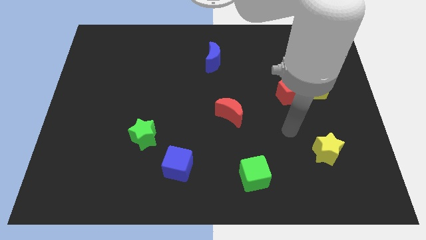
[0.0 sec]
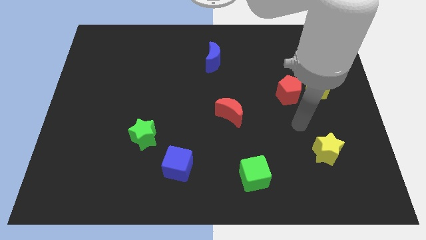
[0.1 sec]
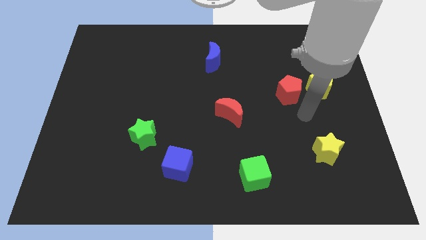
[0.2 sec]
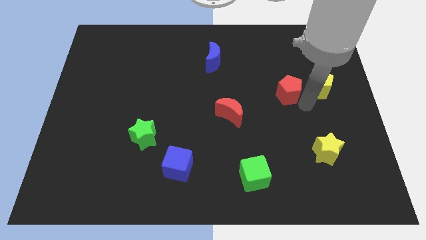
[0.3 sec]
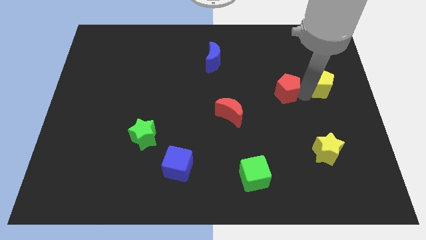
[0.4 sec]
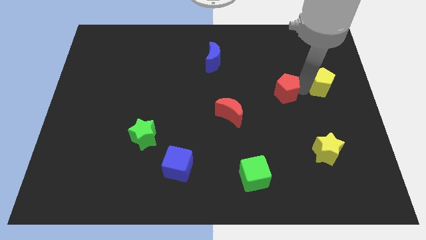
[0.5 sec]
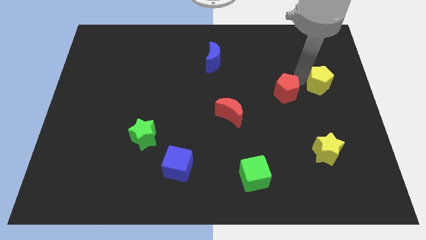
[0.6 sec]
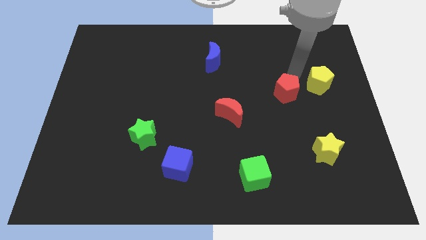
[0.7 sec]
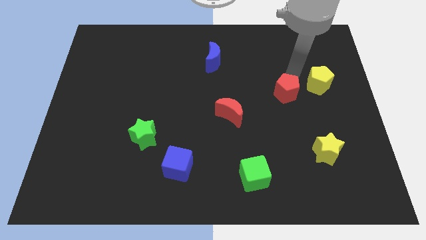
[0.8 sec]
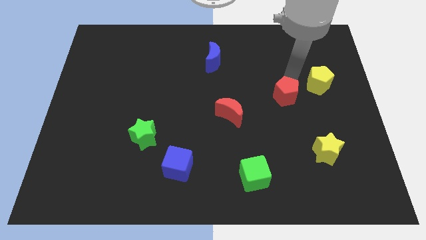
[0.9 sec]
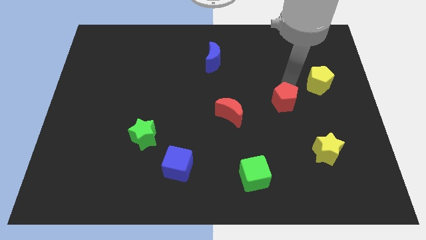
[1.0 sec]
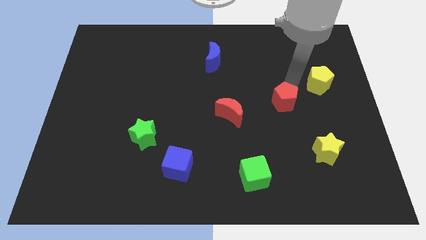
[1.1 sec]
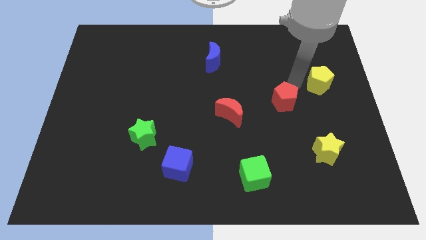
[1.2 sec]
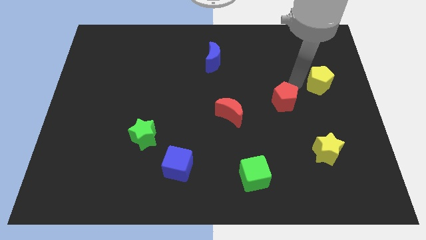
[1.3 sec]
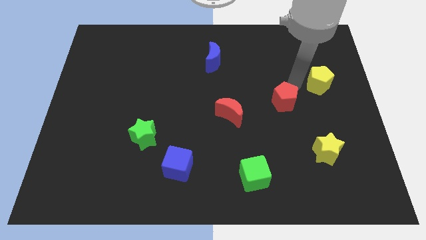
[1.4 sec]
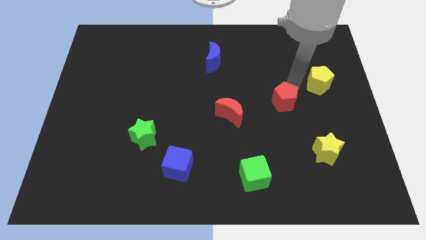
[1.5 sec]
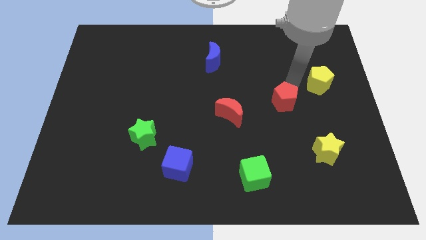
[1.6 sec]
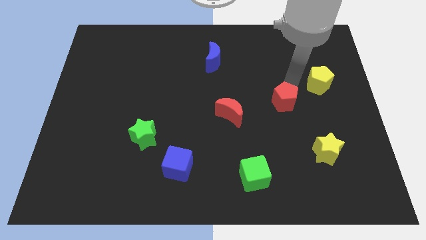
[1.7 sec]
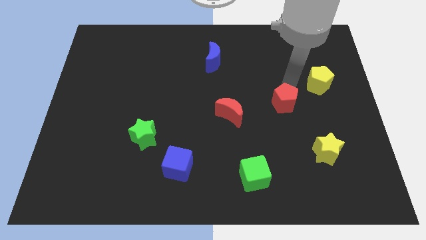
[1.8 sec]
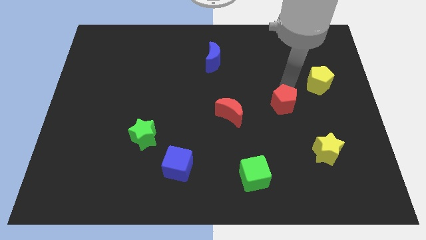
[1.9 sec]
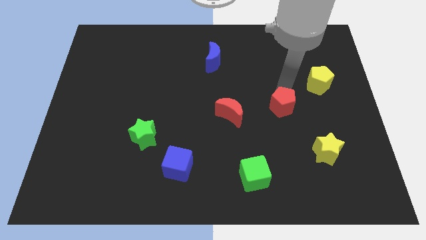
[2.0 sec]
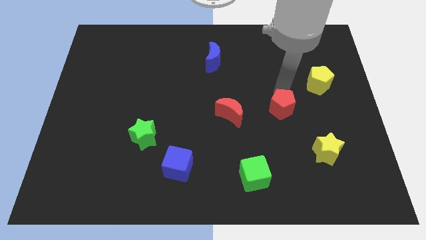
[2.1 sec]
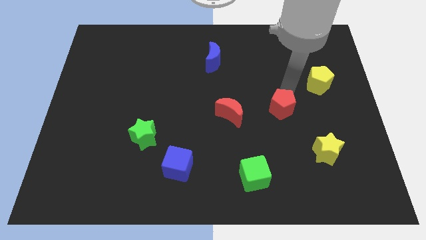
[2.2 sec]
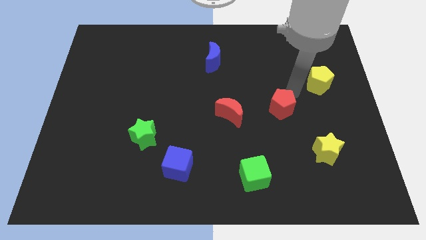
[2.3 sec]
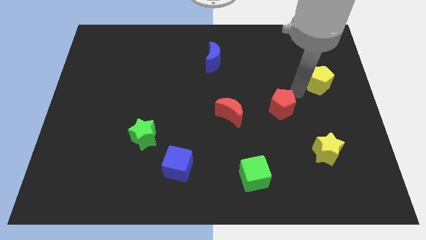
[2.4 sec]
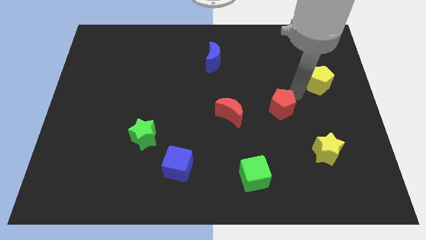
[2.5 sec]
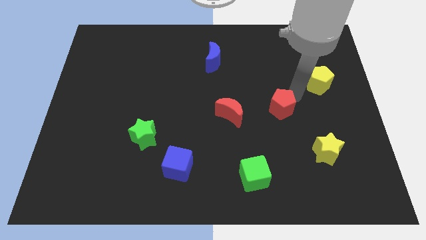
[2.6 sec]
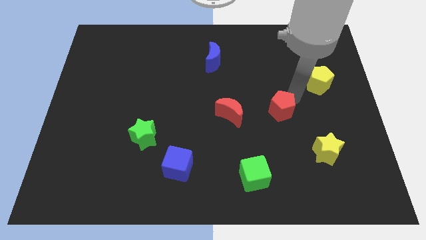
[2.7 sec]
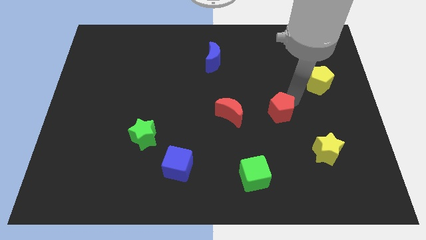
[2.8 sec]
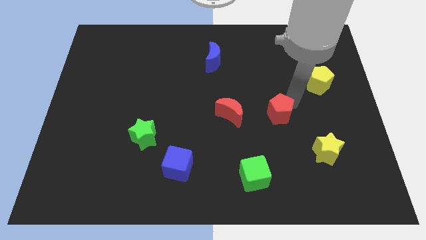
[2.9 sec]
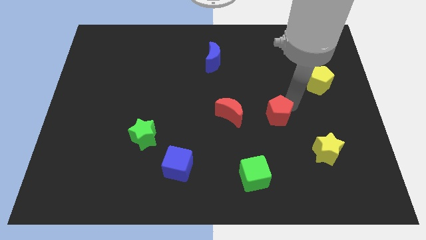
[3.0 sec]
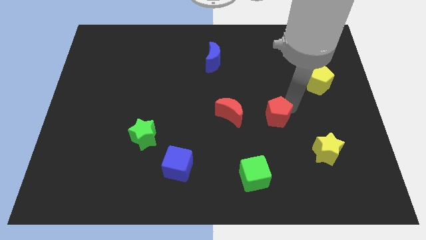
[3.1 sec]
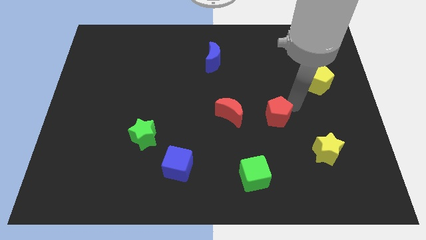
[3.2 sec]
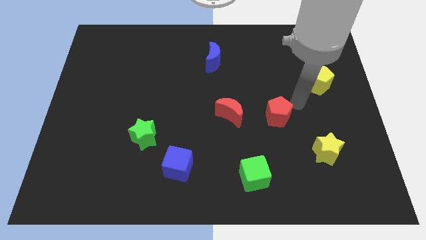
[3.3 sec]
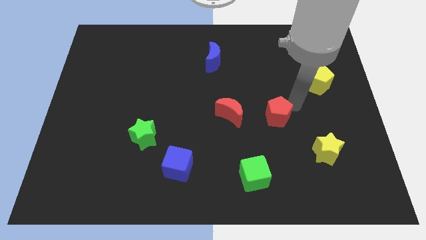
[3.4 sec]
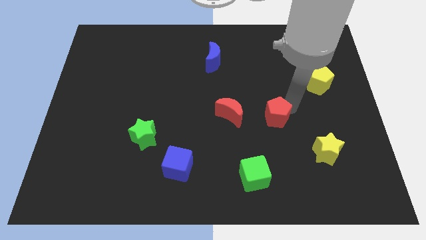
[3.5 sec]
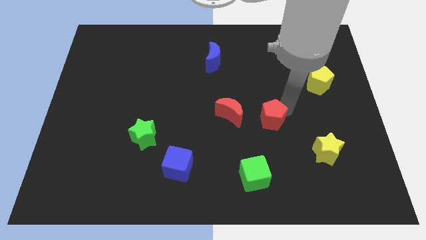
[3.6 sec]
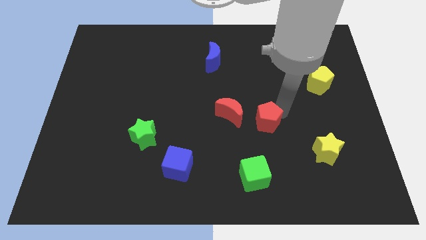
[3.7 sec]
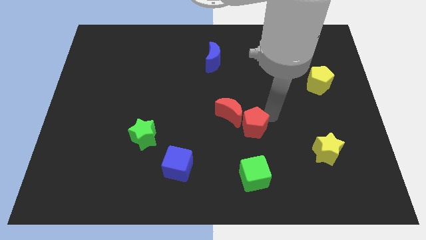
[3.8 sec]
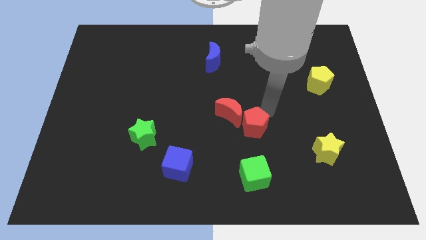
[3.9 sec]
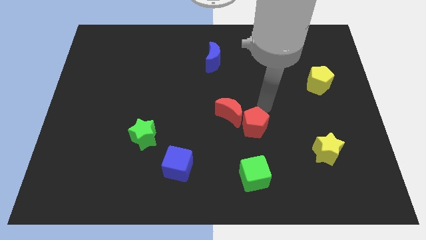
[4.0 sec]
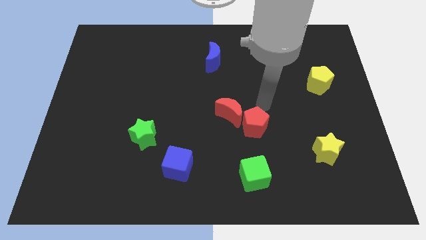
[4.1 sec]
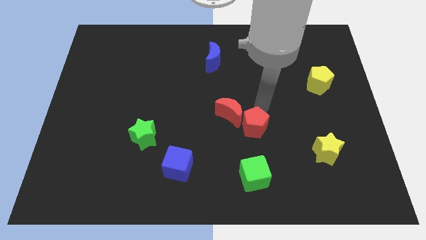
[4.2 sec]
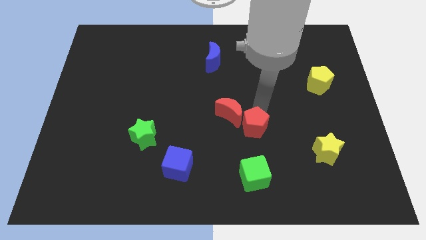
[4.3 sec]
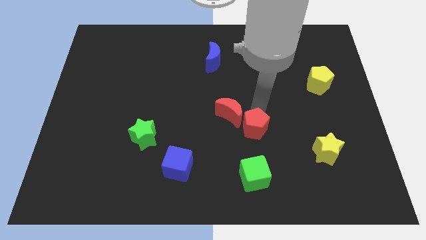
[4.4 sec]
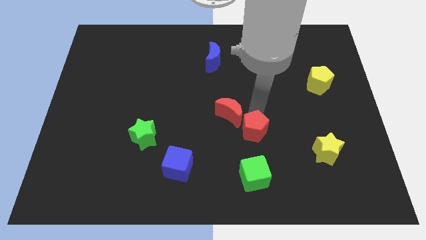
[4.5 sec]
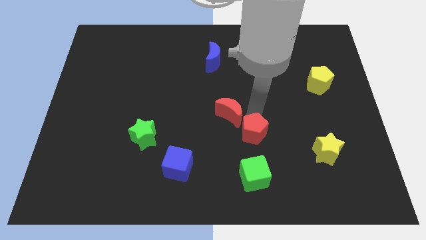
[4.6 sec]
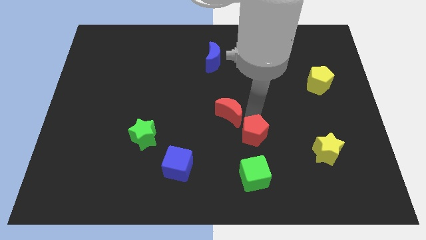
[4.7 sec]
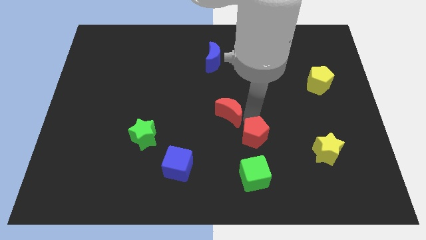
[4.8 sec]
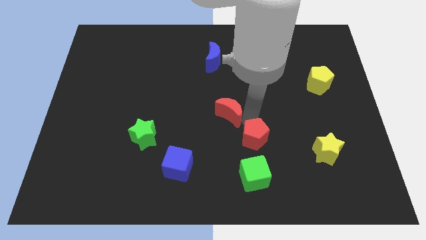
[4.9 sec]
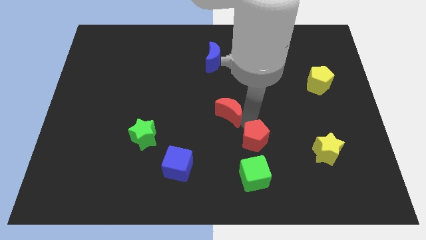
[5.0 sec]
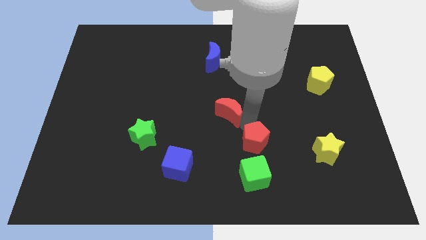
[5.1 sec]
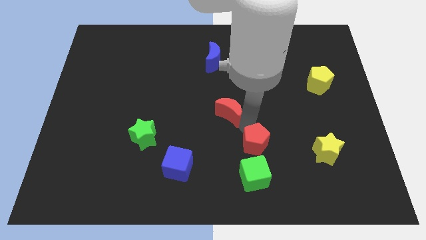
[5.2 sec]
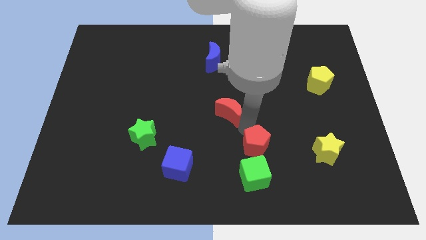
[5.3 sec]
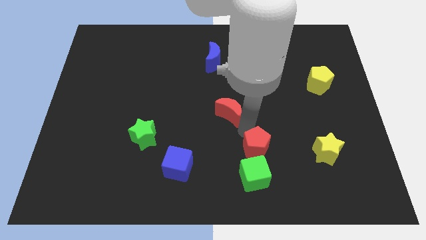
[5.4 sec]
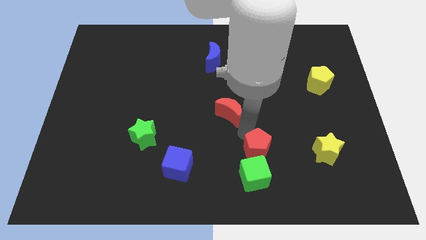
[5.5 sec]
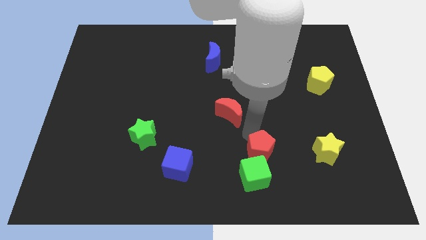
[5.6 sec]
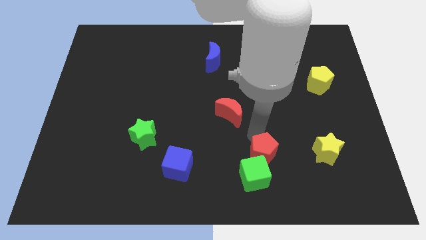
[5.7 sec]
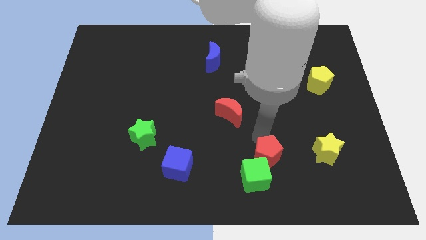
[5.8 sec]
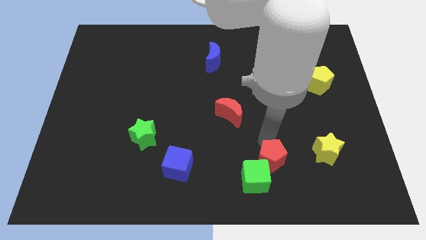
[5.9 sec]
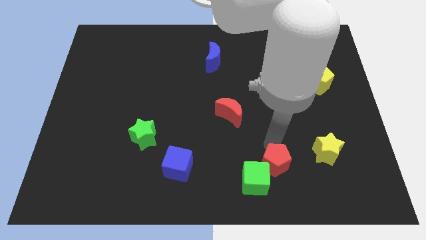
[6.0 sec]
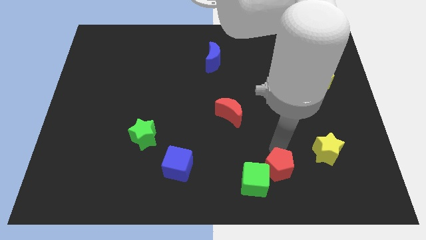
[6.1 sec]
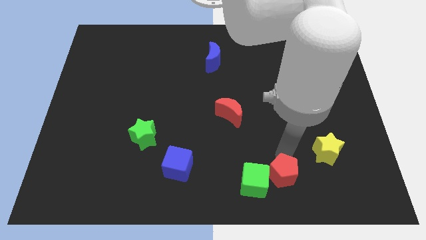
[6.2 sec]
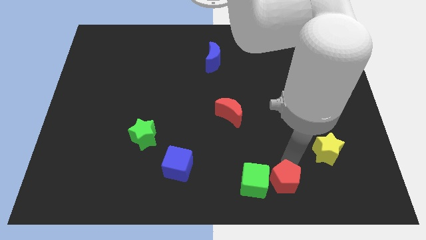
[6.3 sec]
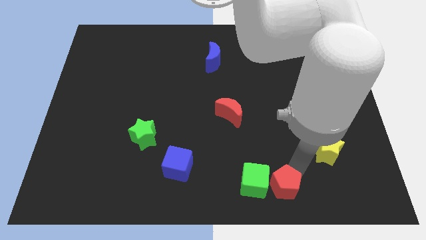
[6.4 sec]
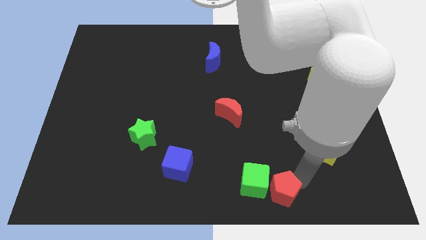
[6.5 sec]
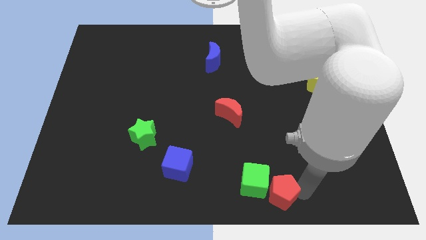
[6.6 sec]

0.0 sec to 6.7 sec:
slide the red pentagon to the bottom side

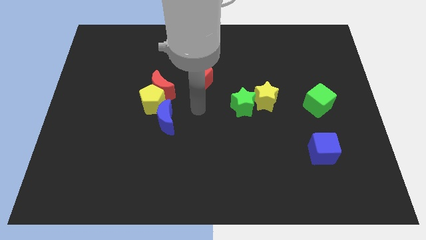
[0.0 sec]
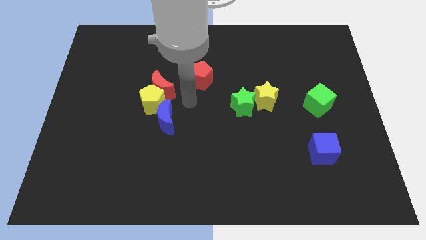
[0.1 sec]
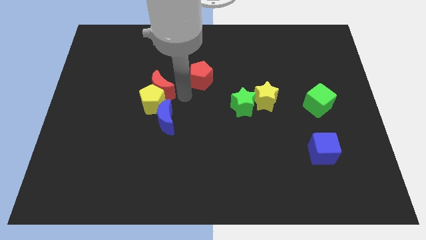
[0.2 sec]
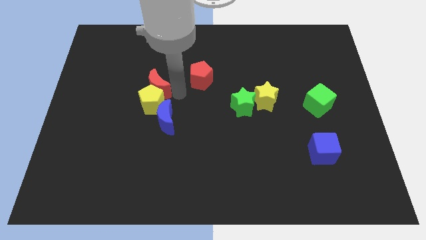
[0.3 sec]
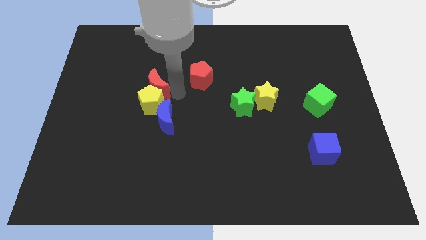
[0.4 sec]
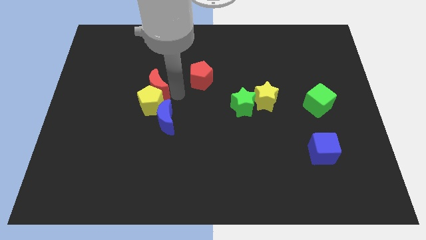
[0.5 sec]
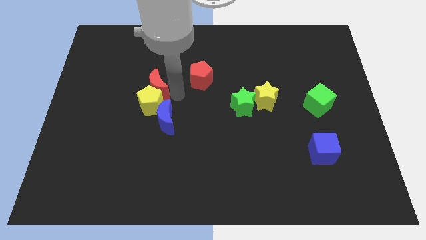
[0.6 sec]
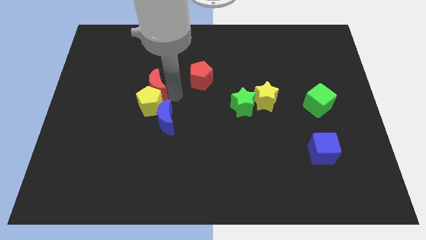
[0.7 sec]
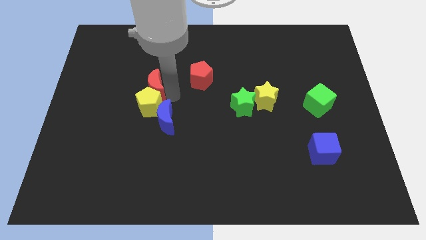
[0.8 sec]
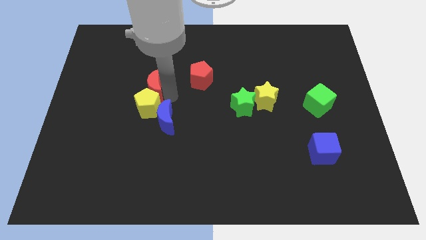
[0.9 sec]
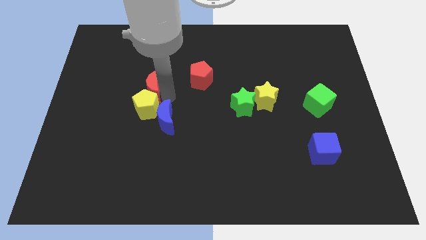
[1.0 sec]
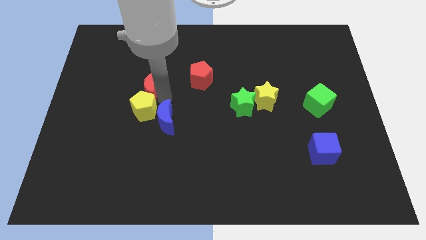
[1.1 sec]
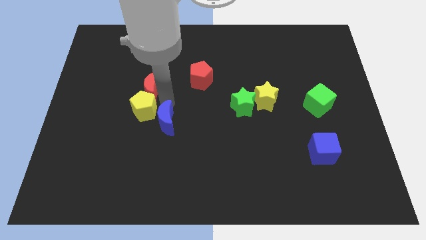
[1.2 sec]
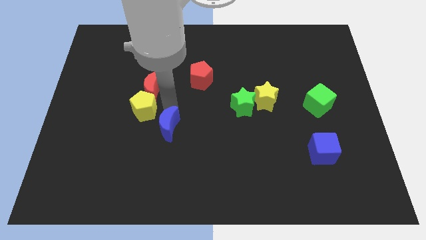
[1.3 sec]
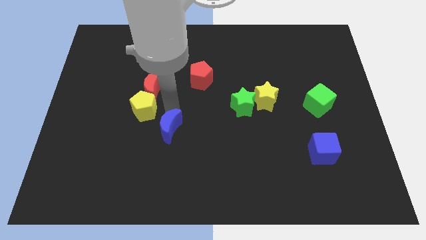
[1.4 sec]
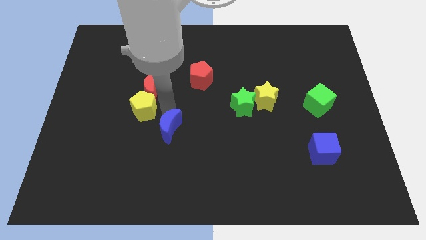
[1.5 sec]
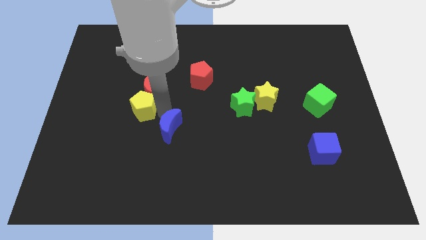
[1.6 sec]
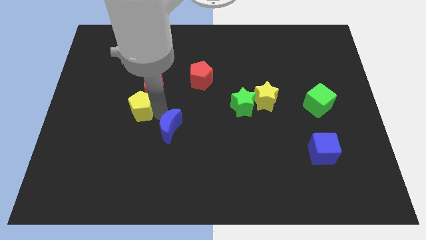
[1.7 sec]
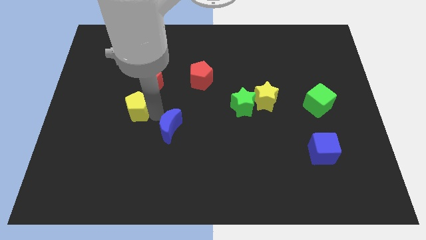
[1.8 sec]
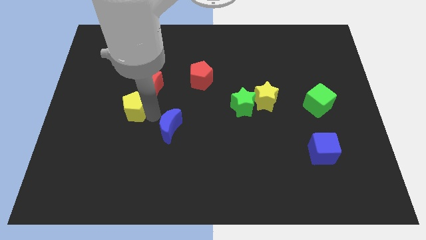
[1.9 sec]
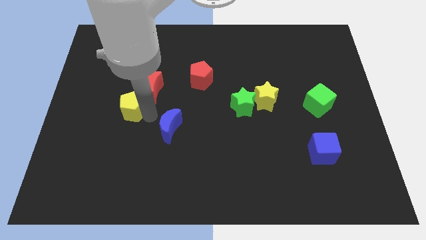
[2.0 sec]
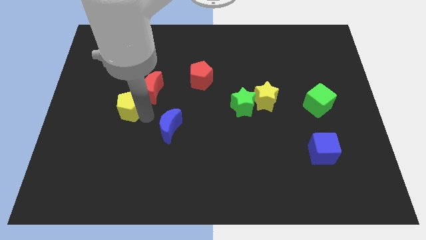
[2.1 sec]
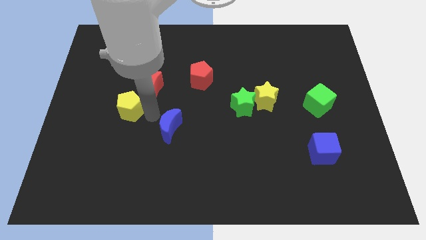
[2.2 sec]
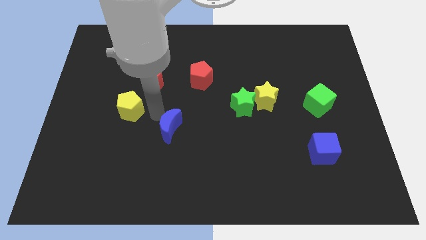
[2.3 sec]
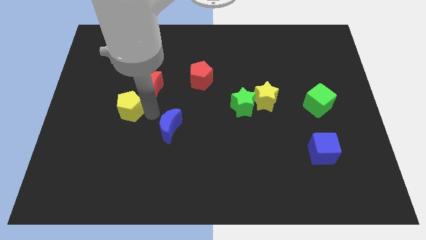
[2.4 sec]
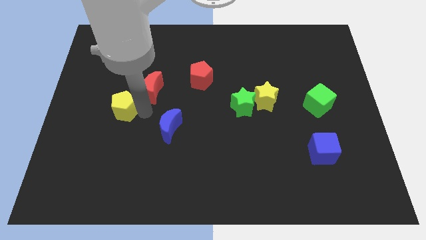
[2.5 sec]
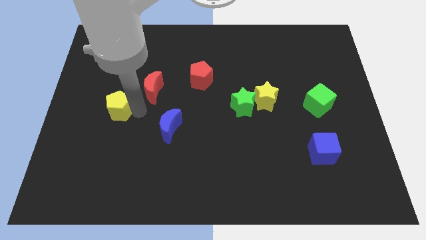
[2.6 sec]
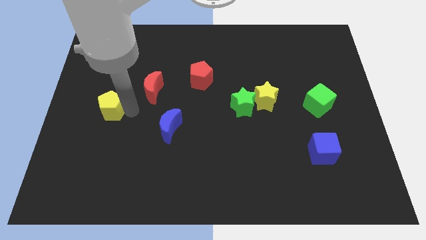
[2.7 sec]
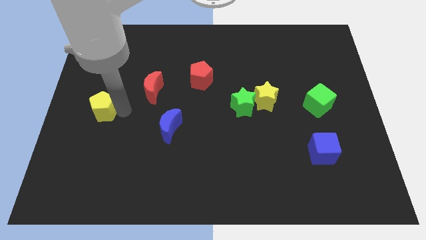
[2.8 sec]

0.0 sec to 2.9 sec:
move the yellow pentagon to the center left
